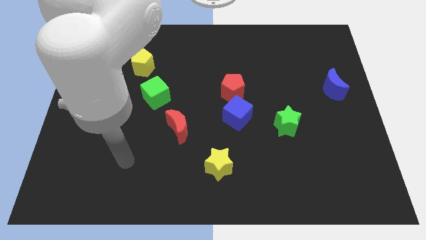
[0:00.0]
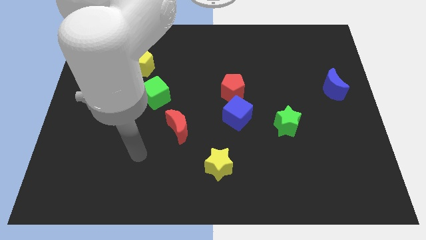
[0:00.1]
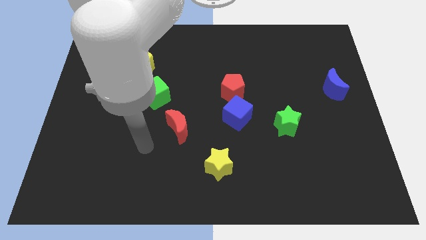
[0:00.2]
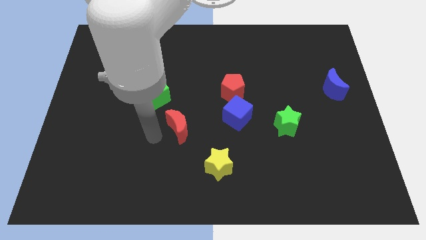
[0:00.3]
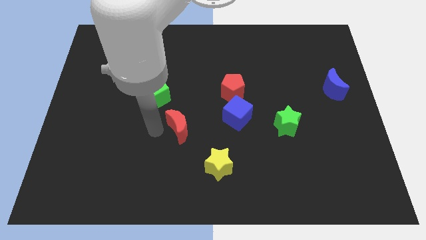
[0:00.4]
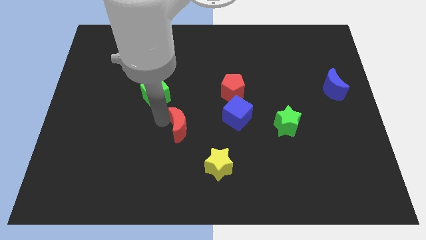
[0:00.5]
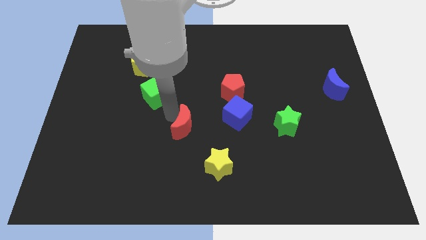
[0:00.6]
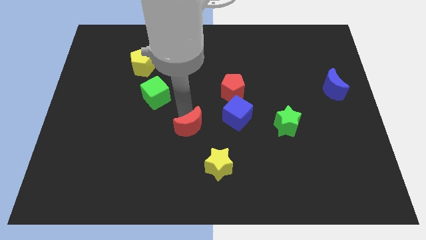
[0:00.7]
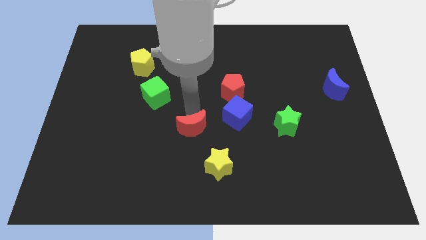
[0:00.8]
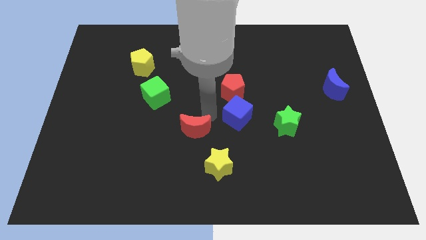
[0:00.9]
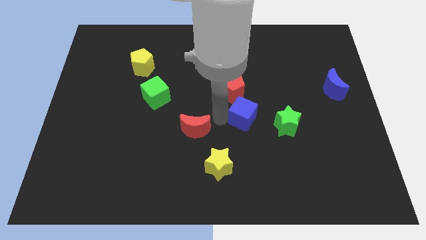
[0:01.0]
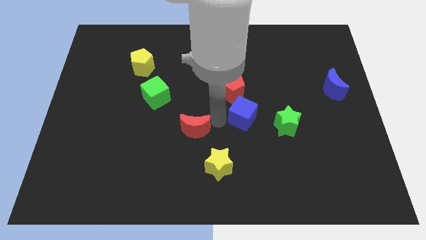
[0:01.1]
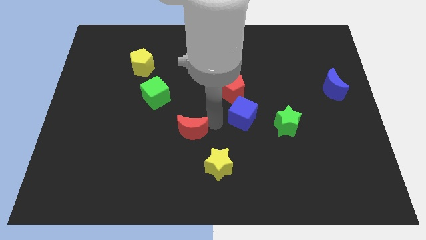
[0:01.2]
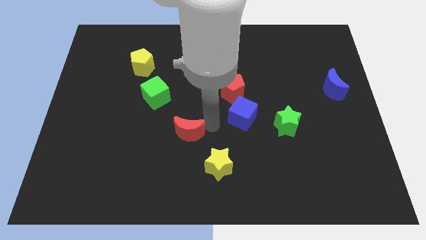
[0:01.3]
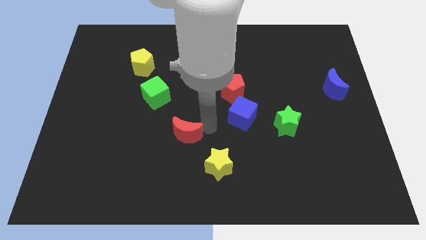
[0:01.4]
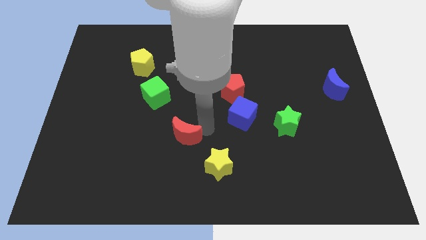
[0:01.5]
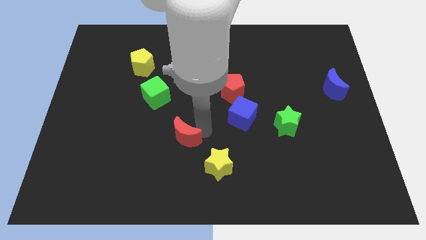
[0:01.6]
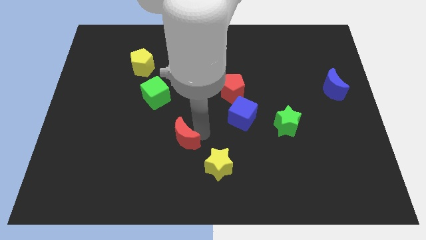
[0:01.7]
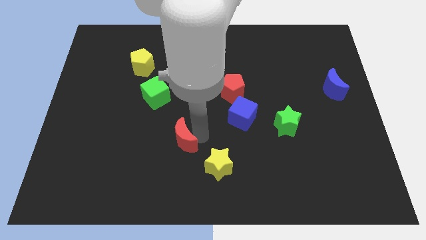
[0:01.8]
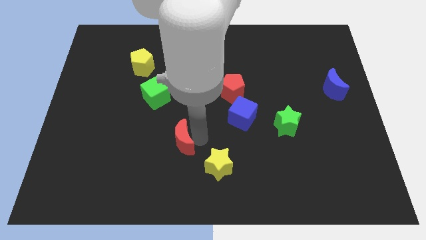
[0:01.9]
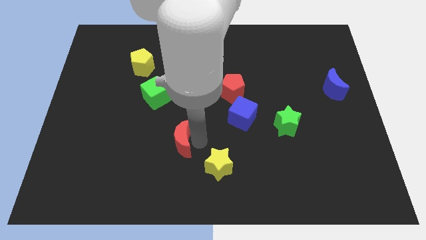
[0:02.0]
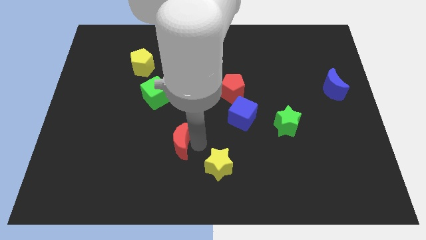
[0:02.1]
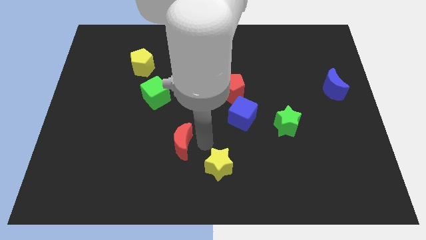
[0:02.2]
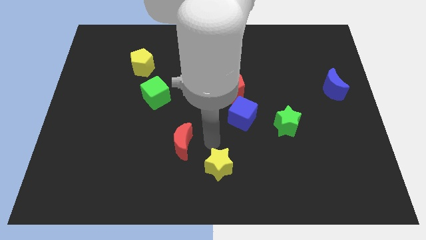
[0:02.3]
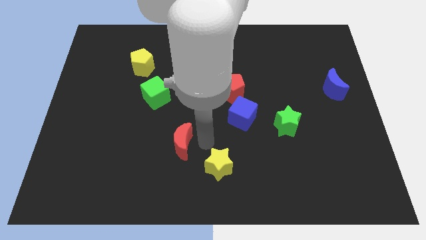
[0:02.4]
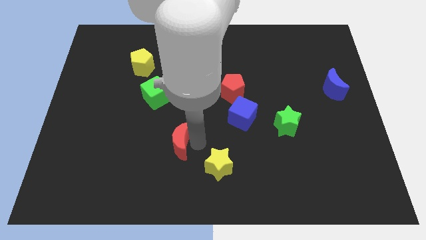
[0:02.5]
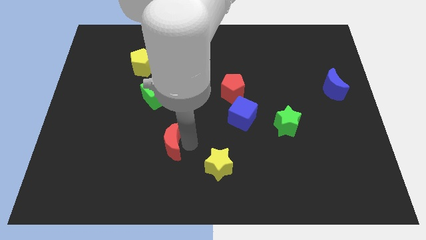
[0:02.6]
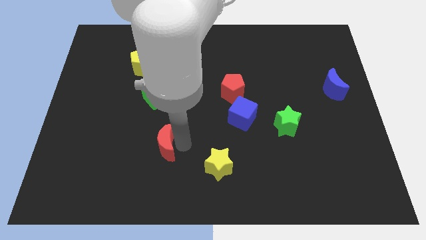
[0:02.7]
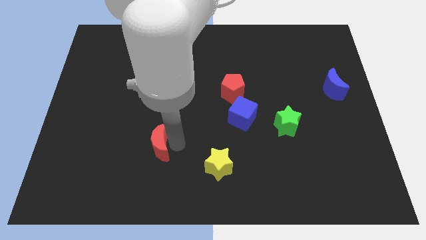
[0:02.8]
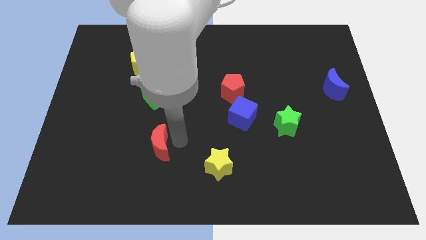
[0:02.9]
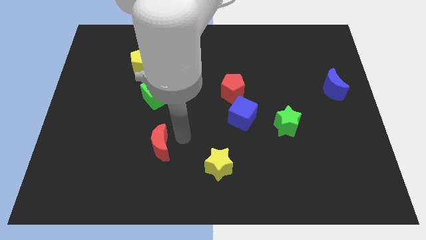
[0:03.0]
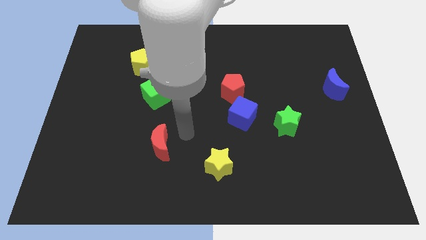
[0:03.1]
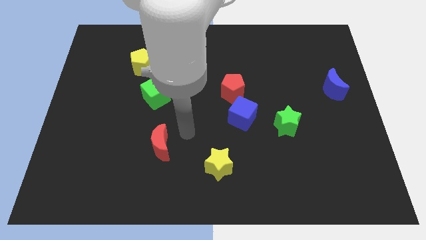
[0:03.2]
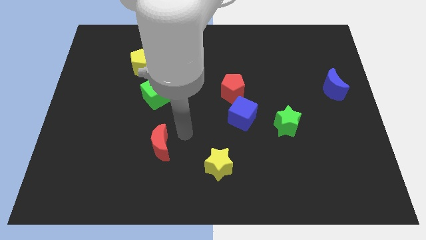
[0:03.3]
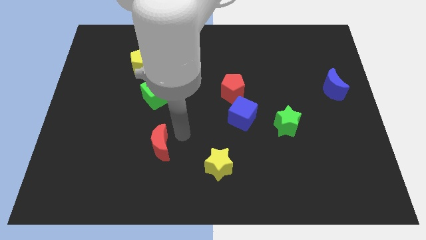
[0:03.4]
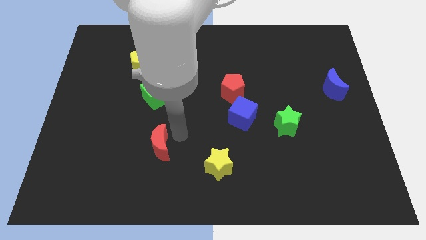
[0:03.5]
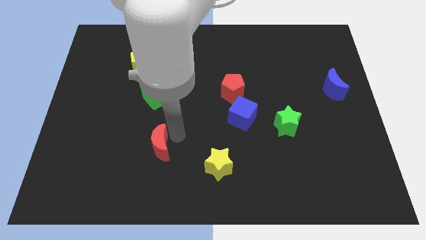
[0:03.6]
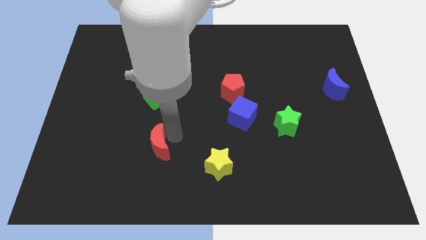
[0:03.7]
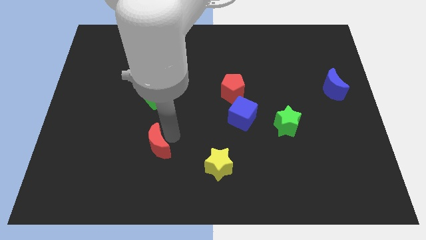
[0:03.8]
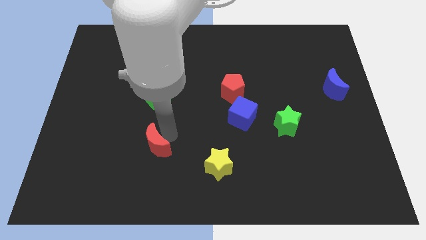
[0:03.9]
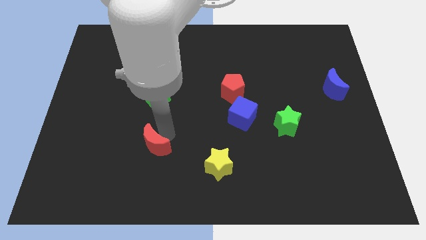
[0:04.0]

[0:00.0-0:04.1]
slightly slide the red moon downwards and left

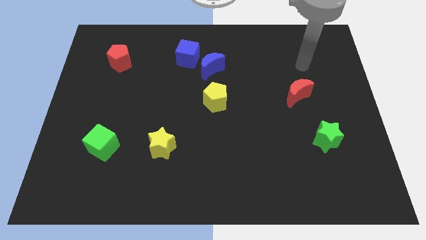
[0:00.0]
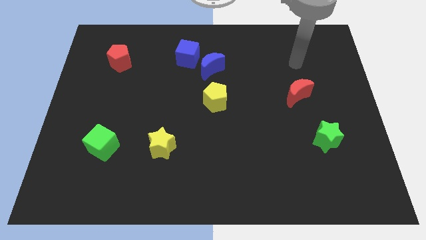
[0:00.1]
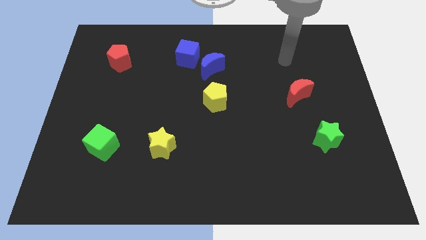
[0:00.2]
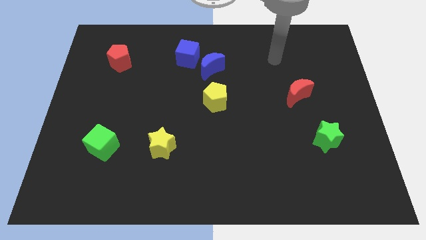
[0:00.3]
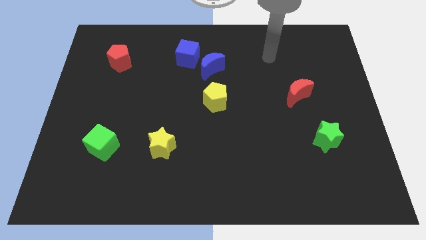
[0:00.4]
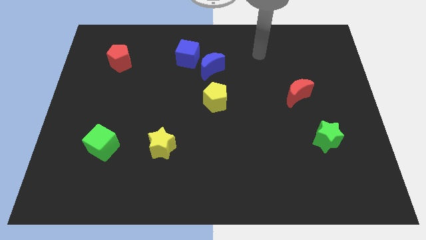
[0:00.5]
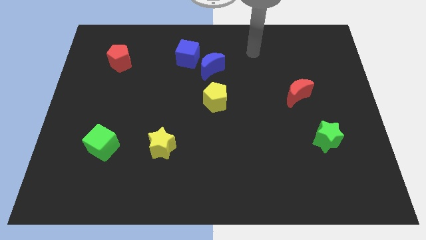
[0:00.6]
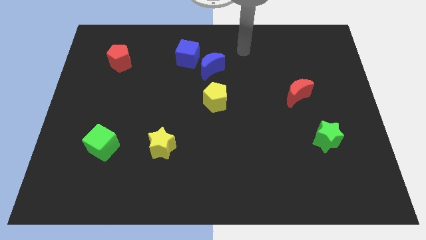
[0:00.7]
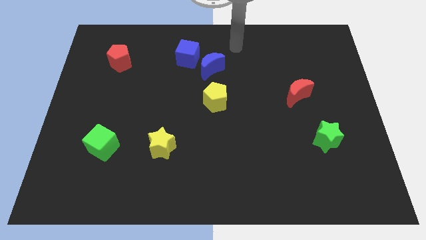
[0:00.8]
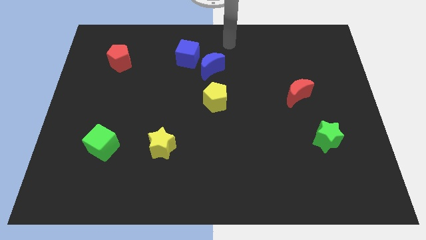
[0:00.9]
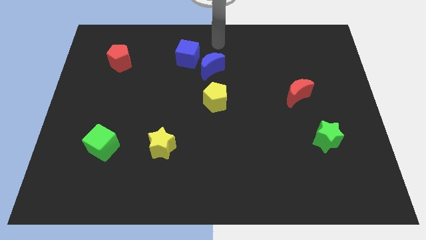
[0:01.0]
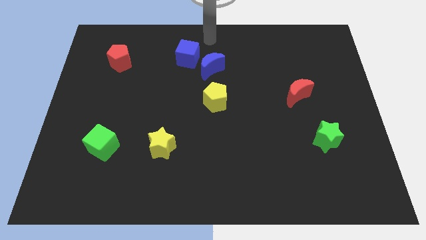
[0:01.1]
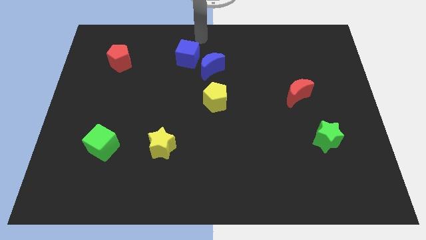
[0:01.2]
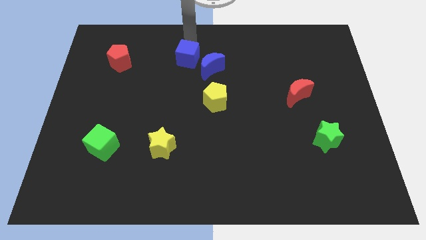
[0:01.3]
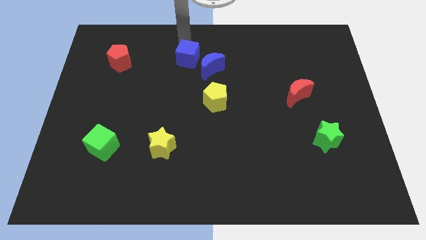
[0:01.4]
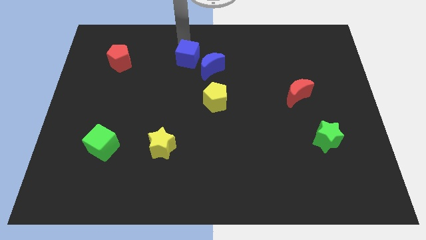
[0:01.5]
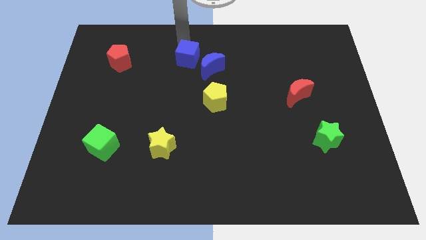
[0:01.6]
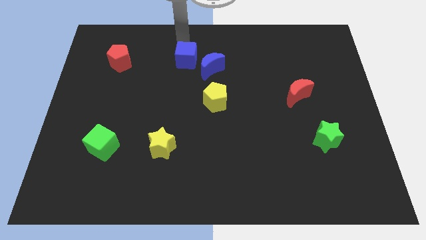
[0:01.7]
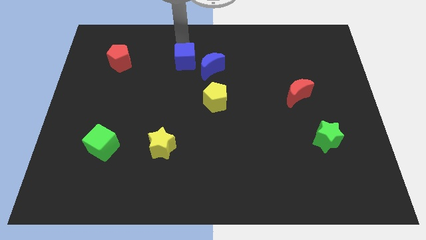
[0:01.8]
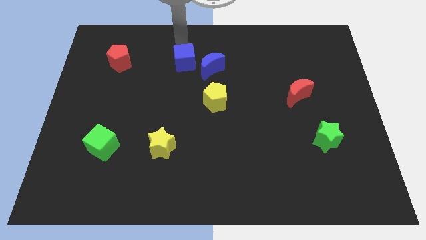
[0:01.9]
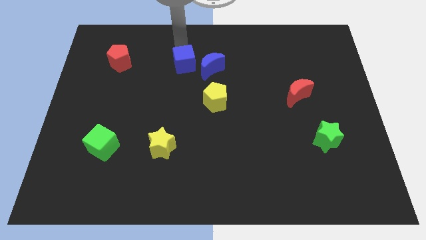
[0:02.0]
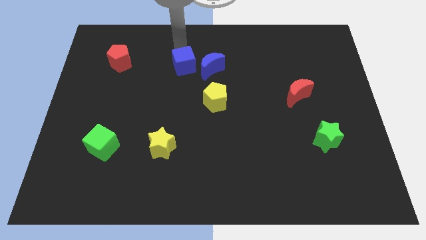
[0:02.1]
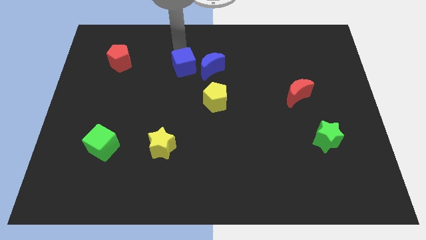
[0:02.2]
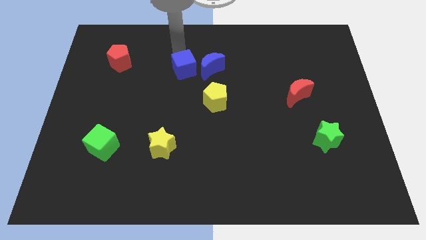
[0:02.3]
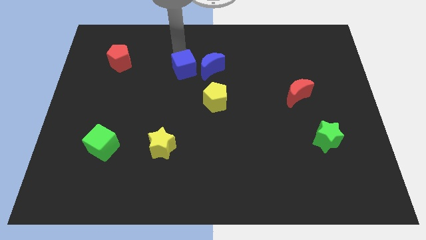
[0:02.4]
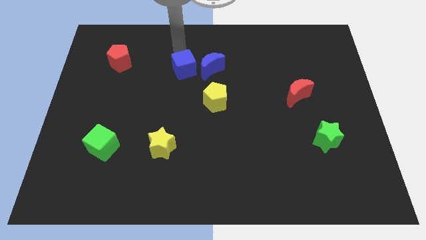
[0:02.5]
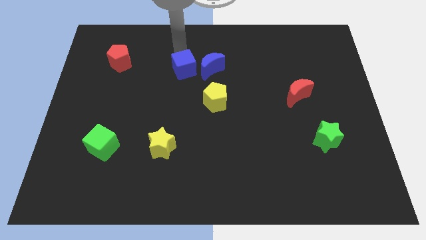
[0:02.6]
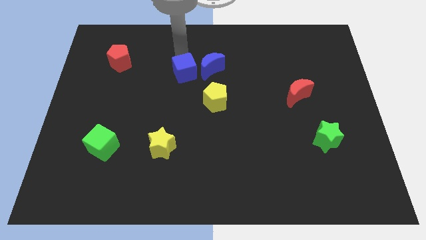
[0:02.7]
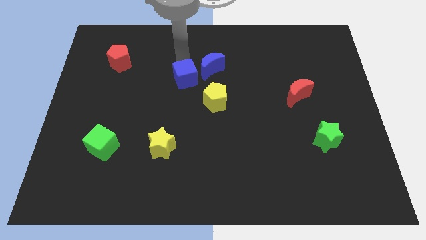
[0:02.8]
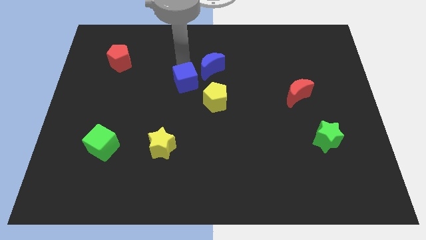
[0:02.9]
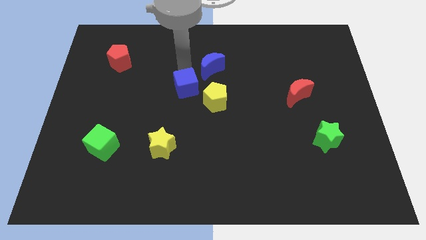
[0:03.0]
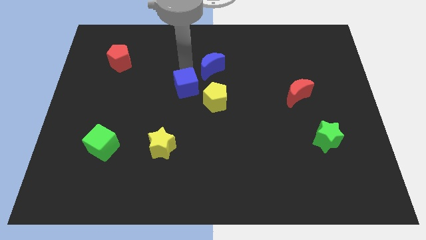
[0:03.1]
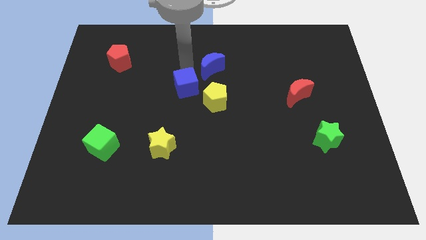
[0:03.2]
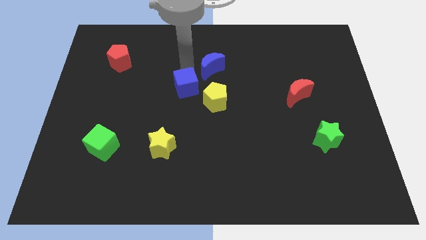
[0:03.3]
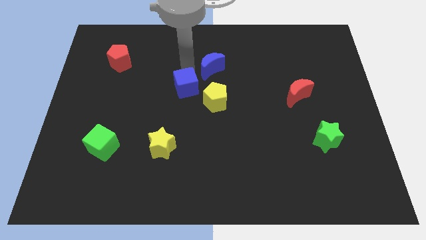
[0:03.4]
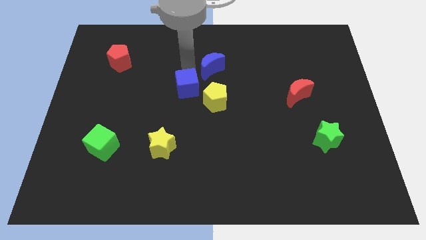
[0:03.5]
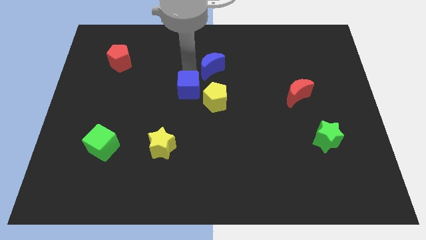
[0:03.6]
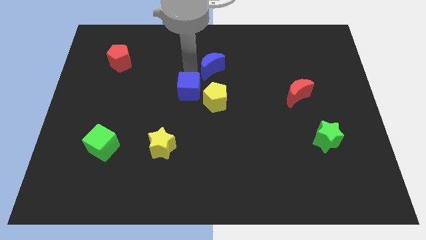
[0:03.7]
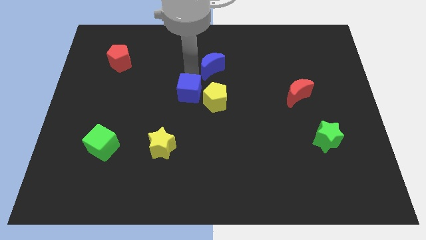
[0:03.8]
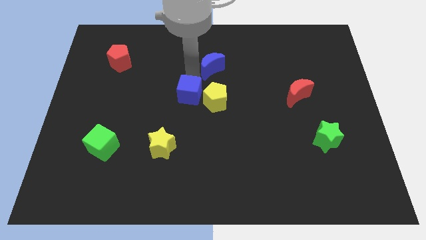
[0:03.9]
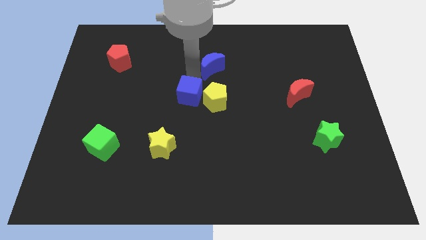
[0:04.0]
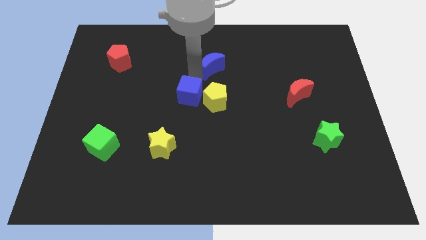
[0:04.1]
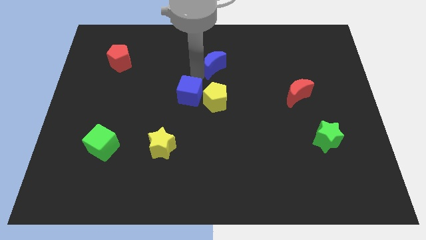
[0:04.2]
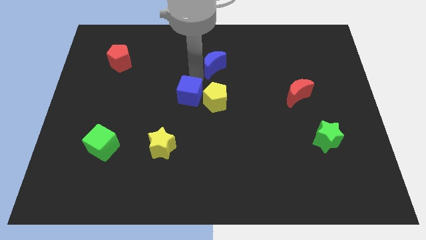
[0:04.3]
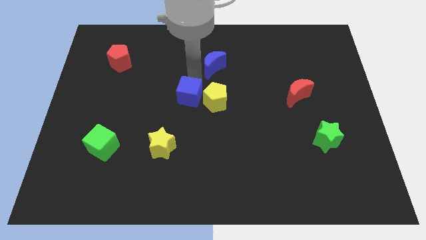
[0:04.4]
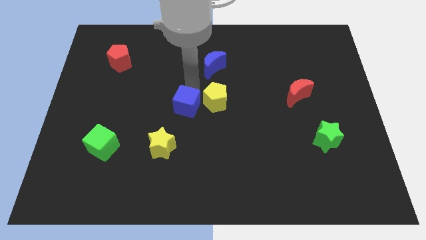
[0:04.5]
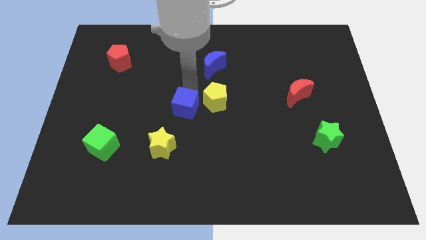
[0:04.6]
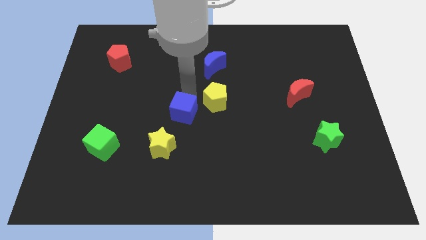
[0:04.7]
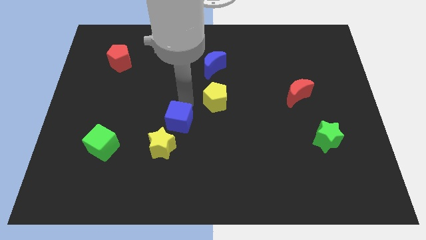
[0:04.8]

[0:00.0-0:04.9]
move the blue cube downwards
